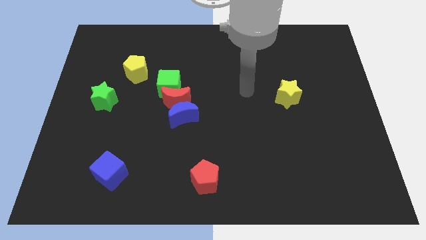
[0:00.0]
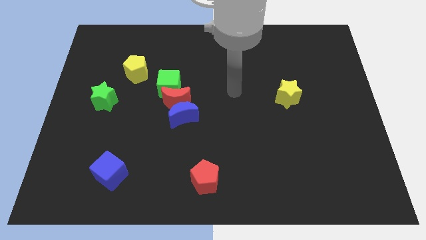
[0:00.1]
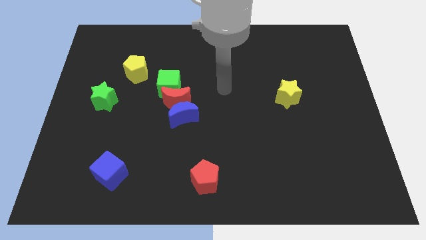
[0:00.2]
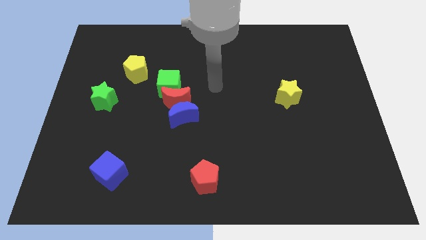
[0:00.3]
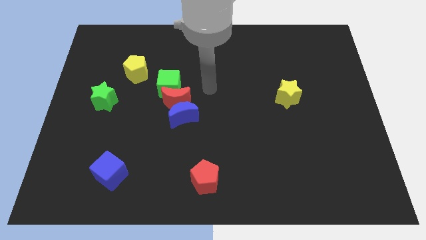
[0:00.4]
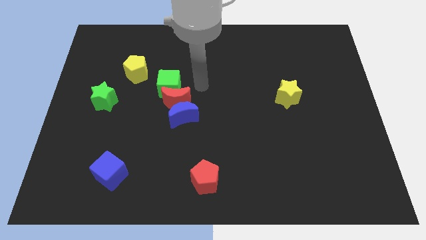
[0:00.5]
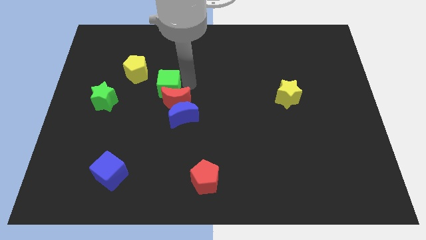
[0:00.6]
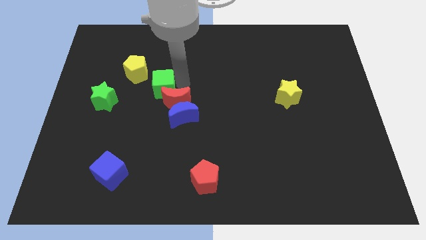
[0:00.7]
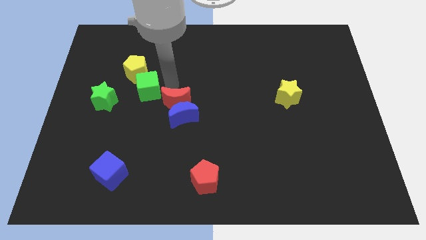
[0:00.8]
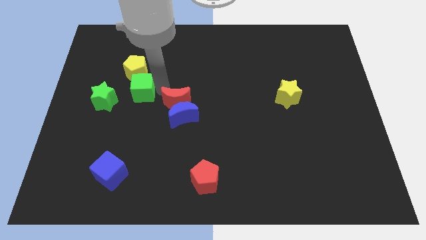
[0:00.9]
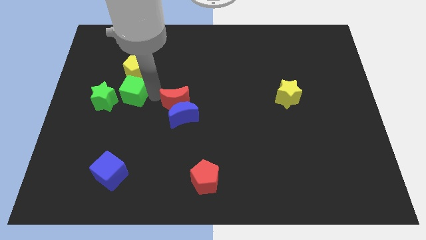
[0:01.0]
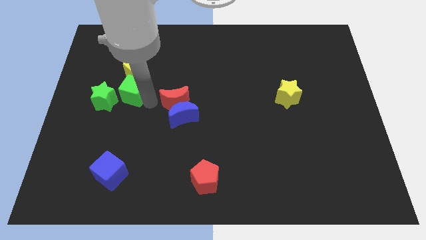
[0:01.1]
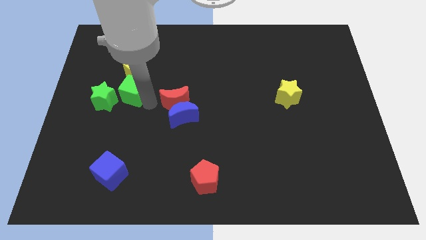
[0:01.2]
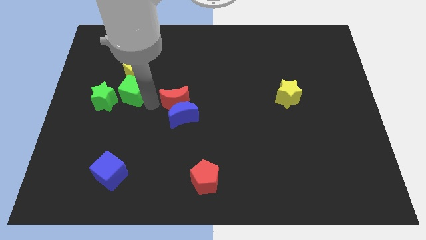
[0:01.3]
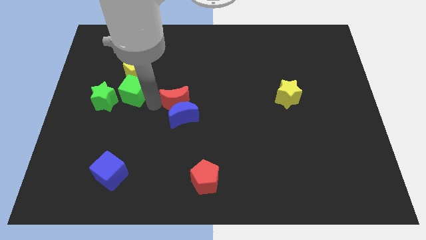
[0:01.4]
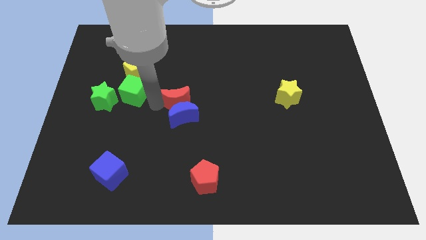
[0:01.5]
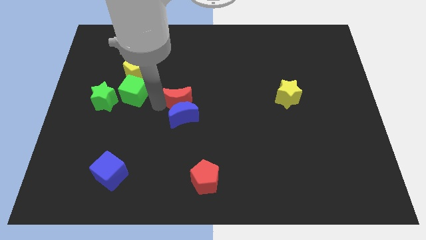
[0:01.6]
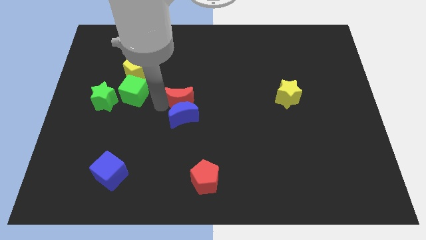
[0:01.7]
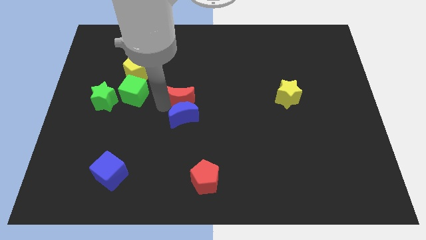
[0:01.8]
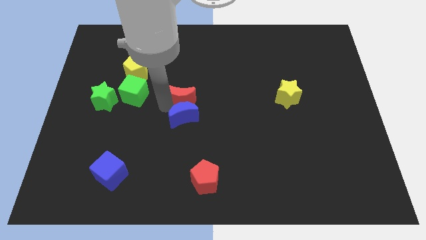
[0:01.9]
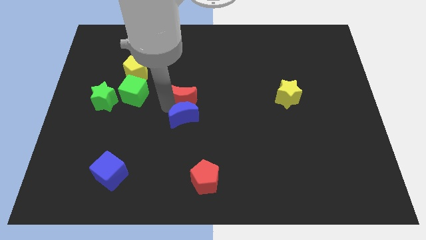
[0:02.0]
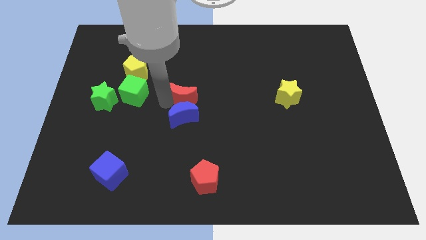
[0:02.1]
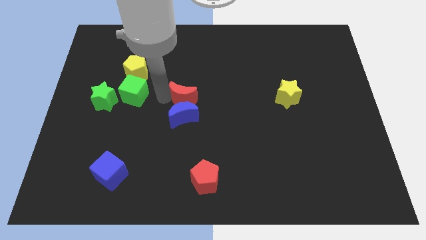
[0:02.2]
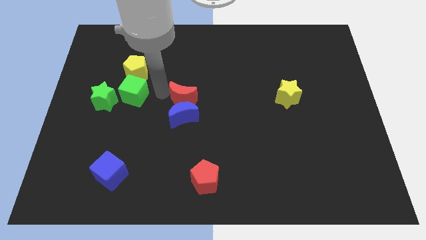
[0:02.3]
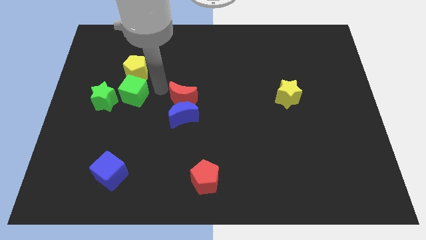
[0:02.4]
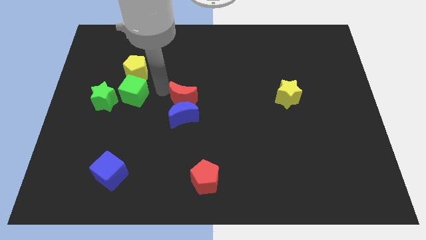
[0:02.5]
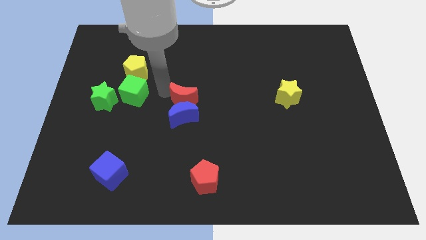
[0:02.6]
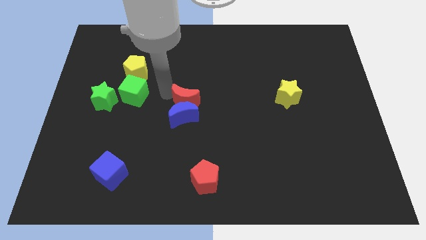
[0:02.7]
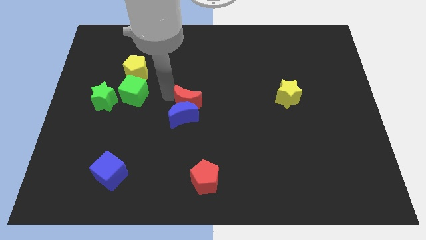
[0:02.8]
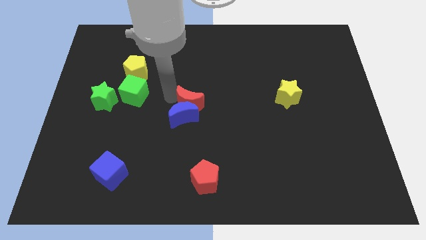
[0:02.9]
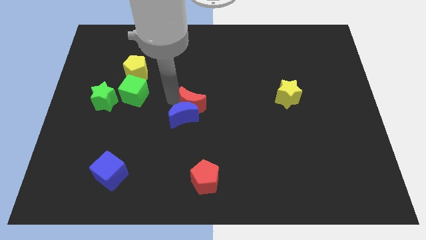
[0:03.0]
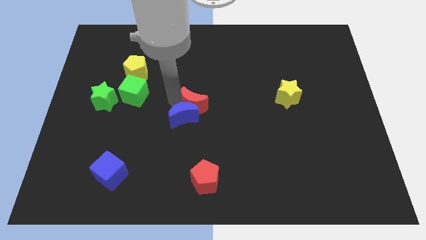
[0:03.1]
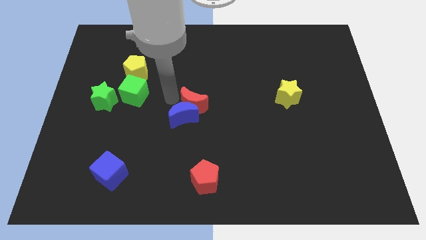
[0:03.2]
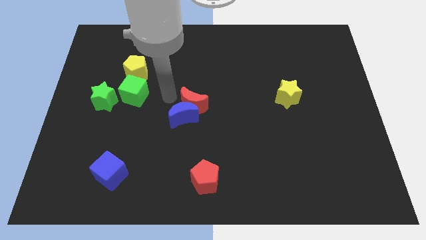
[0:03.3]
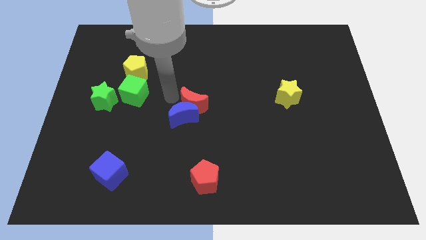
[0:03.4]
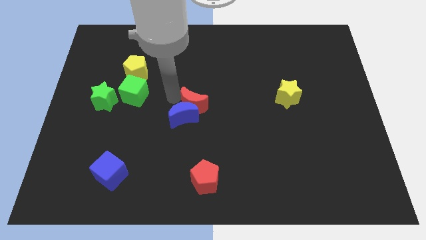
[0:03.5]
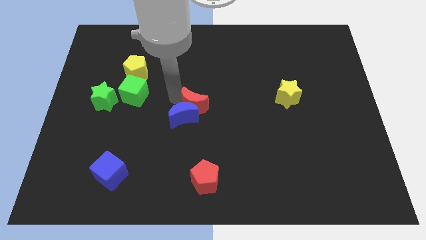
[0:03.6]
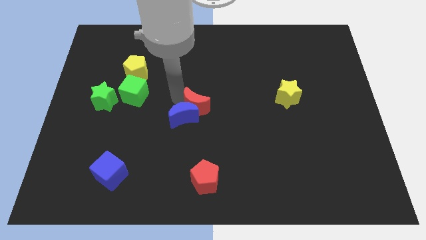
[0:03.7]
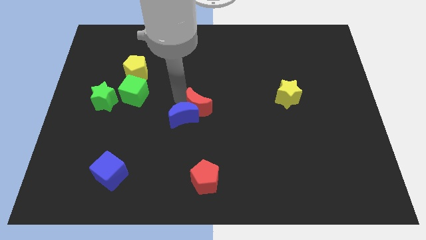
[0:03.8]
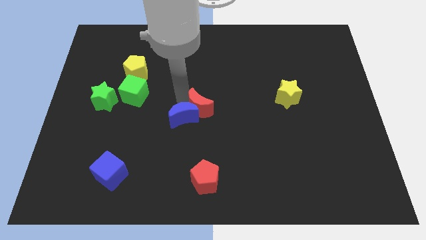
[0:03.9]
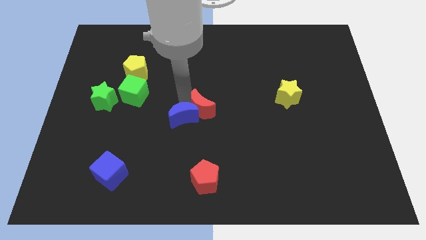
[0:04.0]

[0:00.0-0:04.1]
pull the red moon apart from the blue moon and green cube

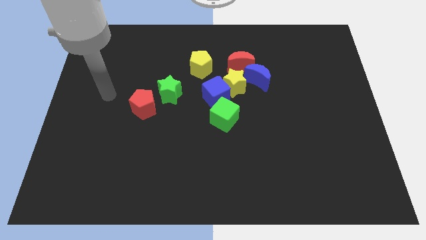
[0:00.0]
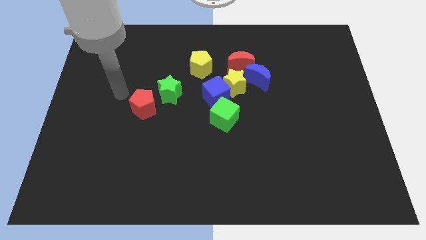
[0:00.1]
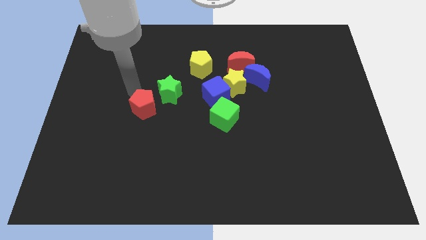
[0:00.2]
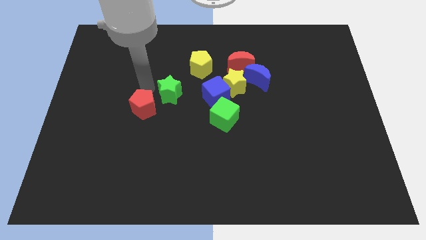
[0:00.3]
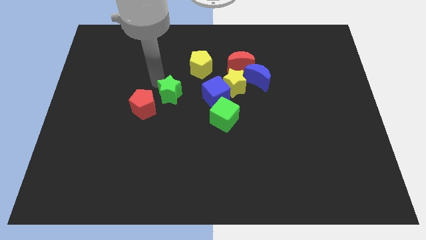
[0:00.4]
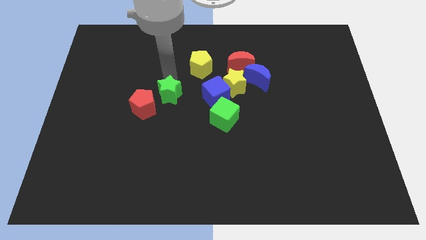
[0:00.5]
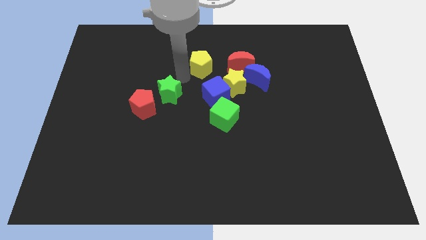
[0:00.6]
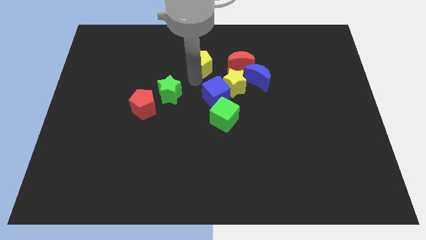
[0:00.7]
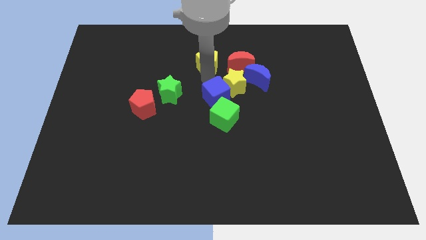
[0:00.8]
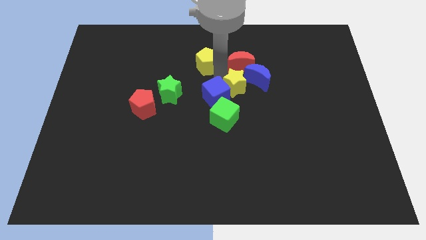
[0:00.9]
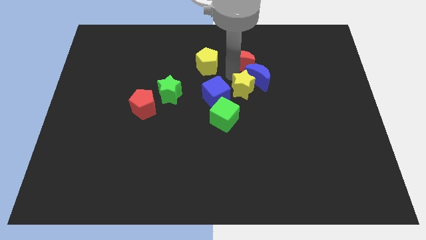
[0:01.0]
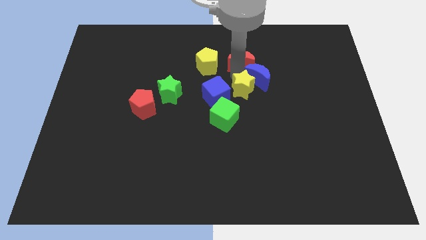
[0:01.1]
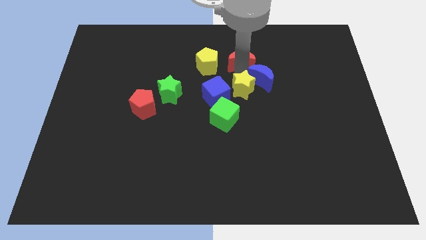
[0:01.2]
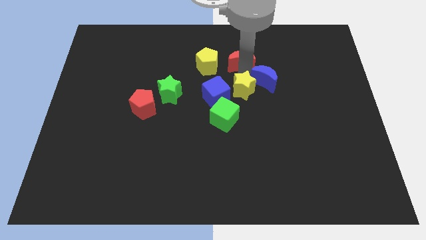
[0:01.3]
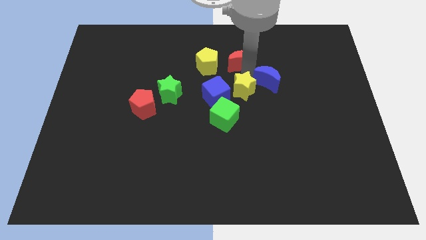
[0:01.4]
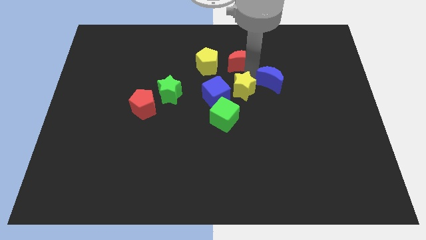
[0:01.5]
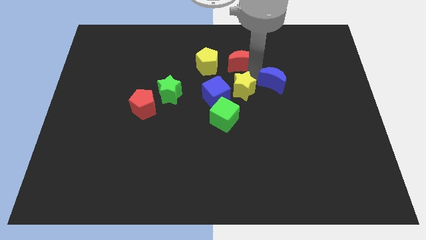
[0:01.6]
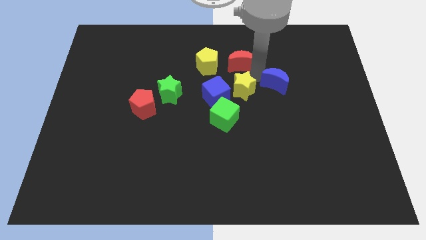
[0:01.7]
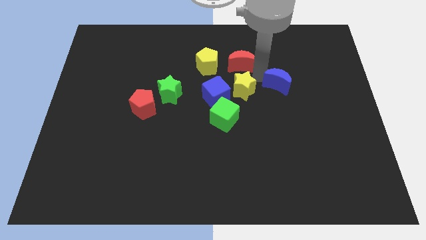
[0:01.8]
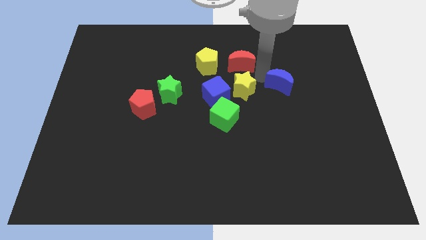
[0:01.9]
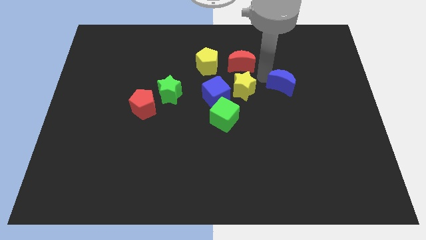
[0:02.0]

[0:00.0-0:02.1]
separate the blue moon from the yellow star and red moon

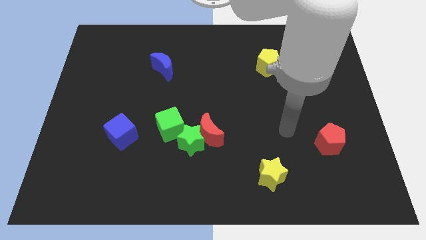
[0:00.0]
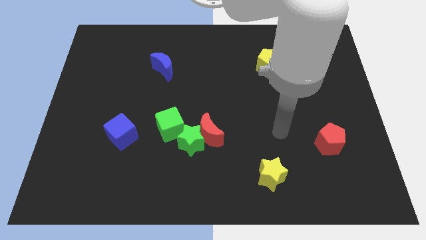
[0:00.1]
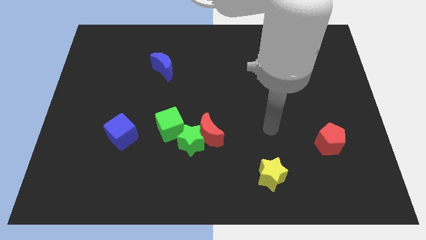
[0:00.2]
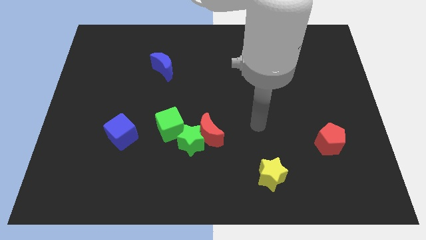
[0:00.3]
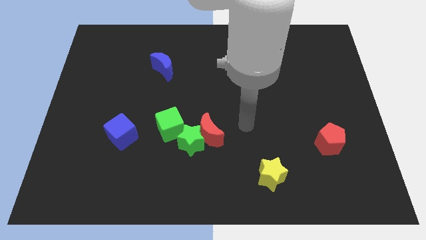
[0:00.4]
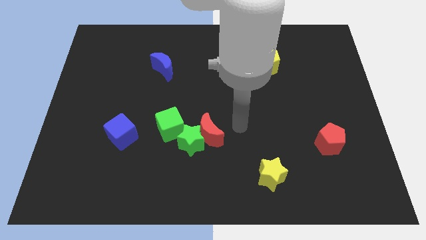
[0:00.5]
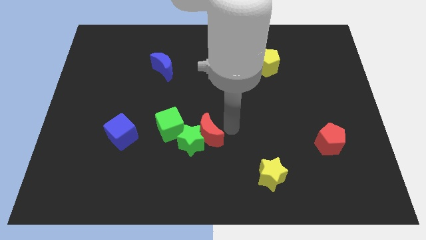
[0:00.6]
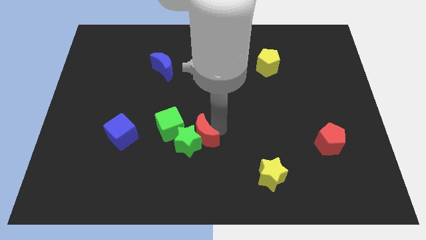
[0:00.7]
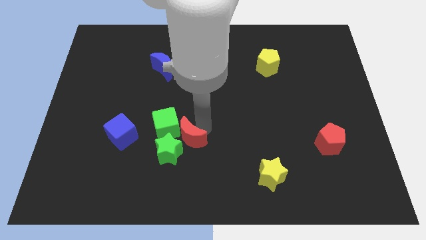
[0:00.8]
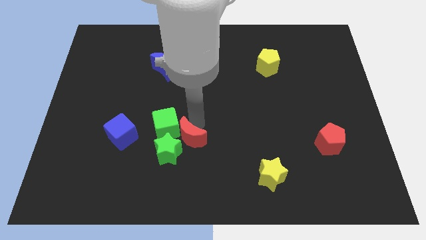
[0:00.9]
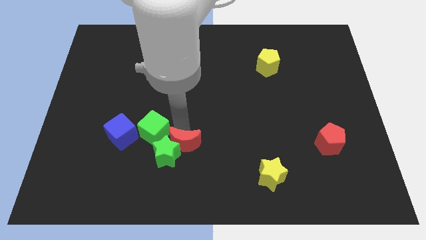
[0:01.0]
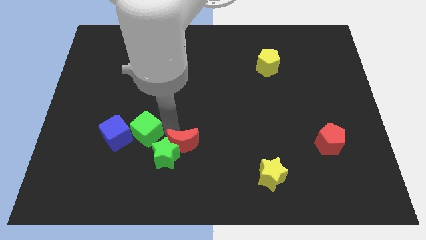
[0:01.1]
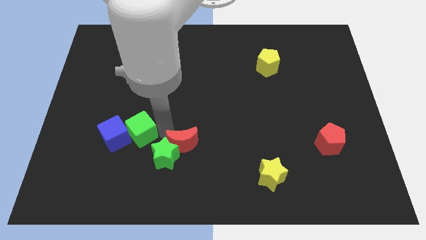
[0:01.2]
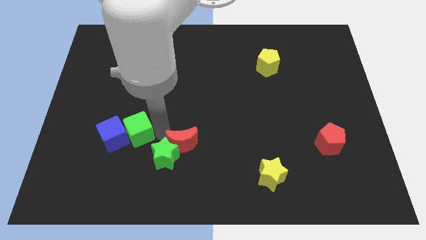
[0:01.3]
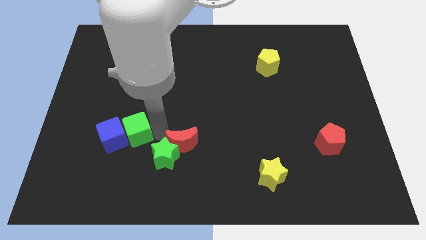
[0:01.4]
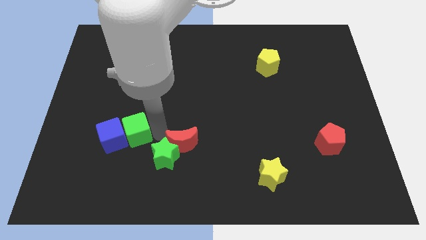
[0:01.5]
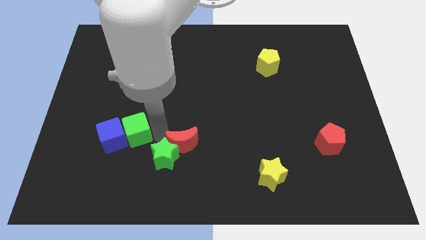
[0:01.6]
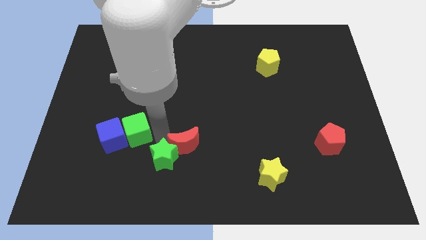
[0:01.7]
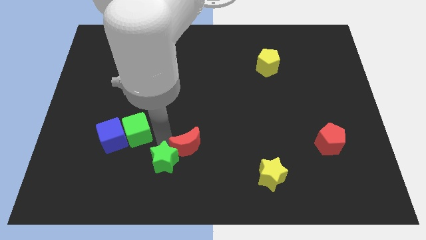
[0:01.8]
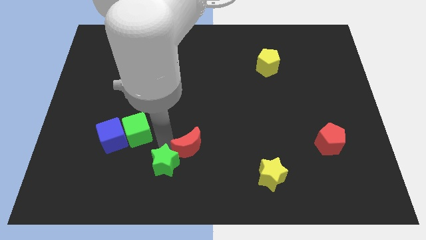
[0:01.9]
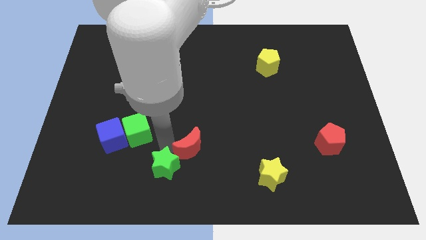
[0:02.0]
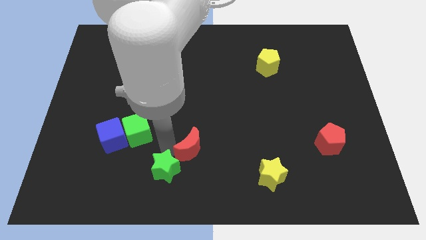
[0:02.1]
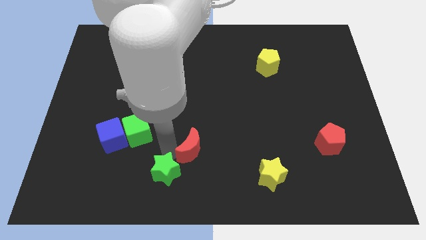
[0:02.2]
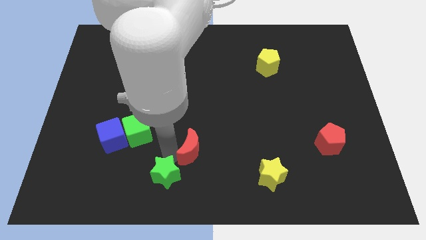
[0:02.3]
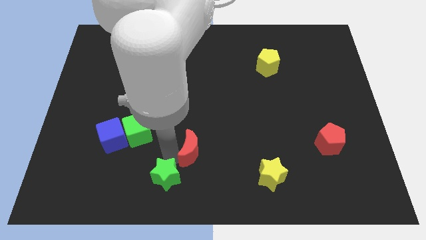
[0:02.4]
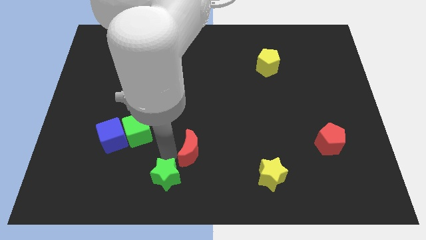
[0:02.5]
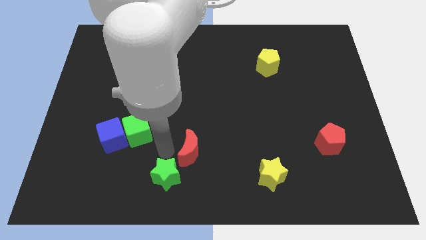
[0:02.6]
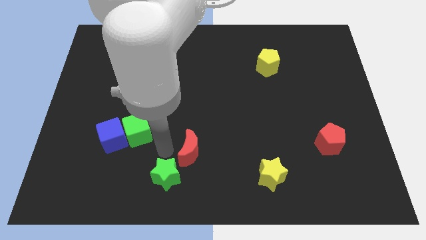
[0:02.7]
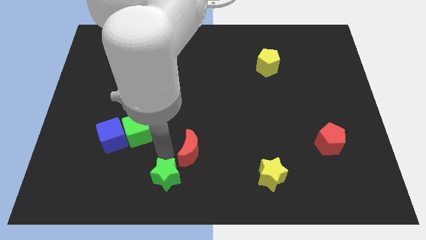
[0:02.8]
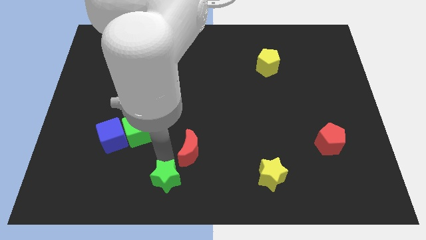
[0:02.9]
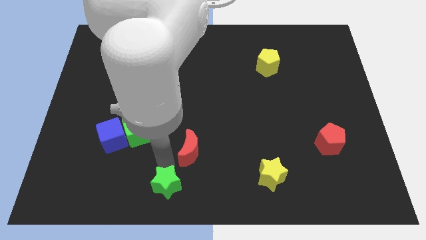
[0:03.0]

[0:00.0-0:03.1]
separate the green star from the red moon and green cube
